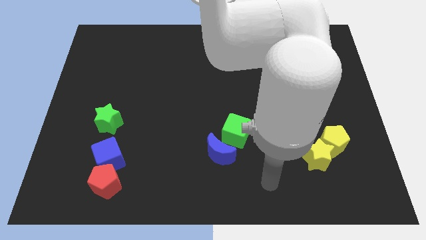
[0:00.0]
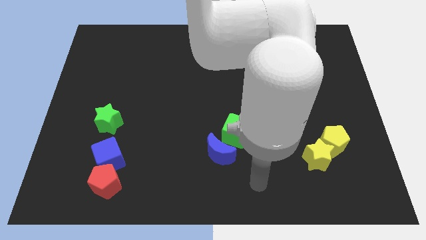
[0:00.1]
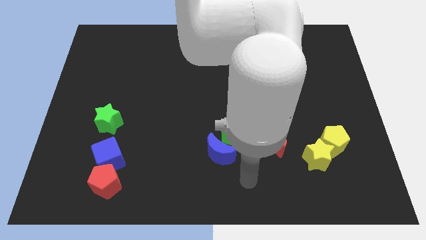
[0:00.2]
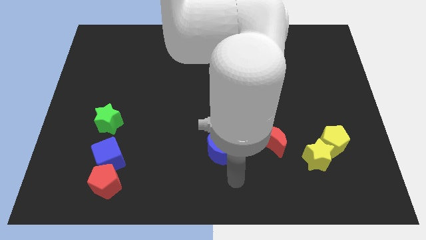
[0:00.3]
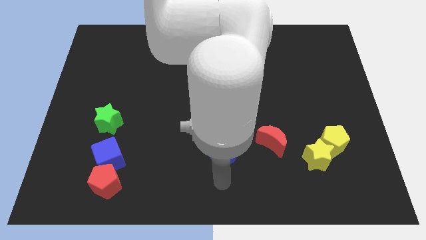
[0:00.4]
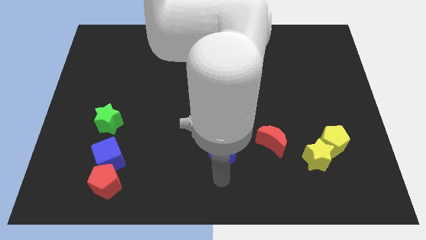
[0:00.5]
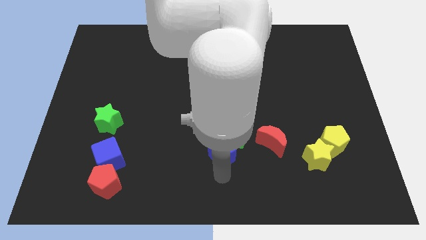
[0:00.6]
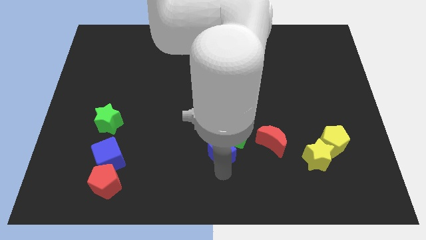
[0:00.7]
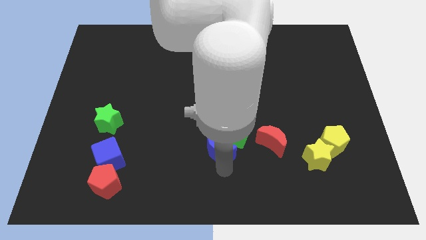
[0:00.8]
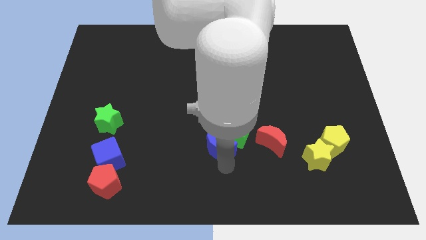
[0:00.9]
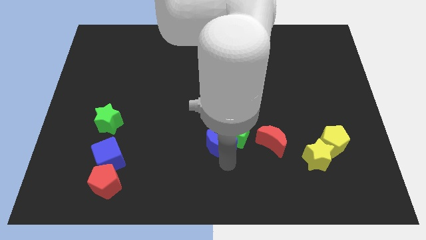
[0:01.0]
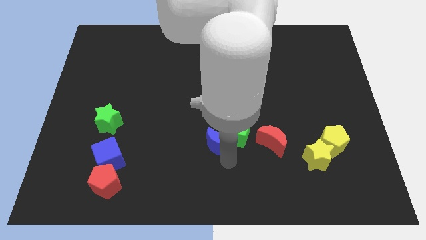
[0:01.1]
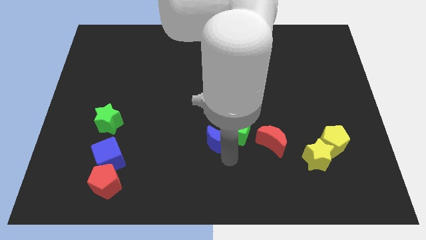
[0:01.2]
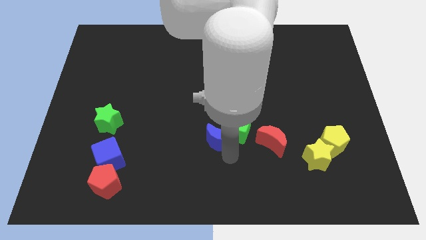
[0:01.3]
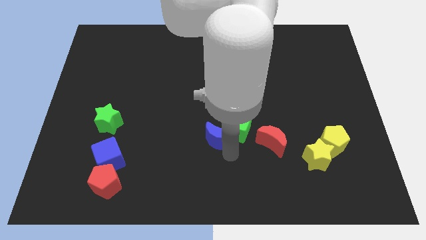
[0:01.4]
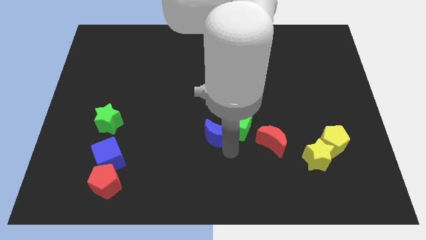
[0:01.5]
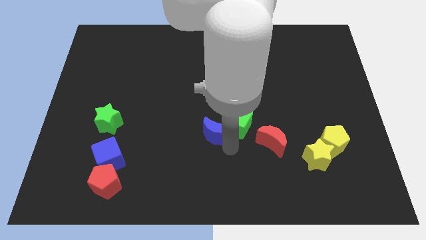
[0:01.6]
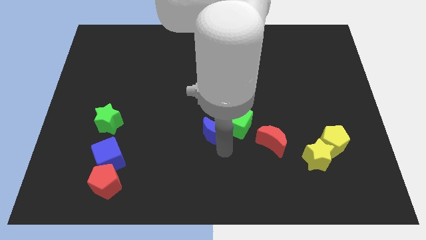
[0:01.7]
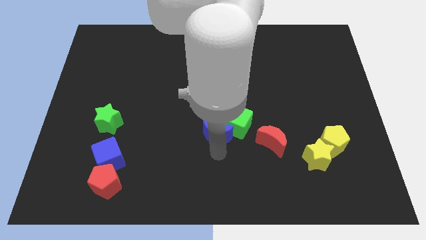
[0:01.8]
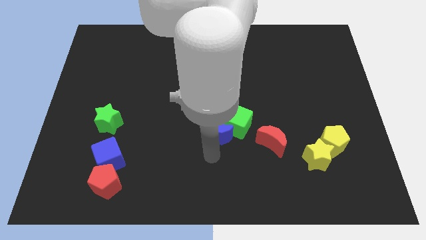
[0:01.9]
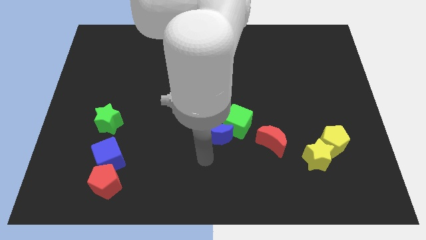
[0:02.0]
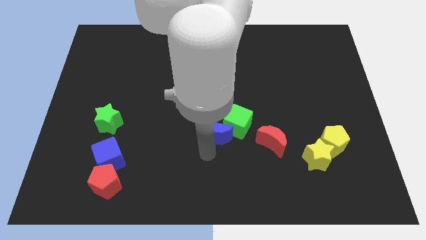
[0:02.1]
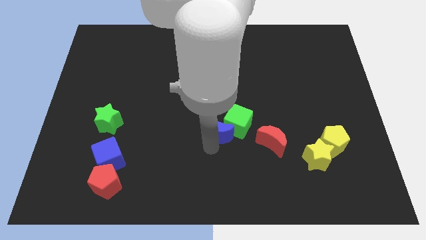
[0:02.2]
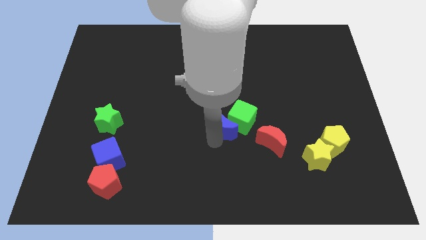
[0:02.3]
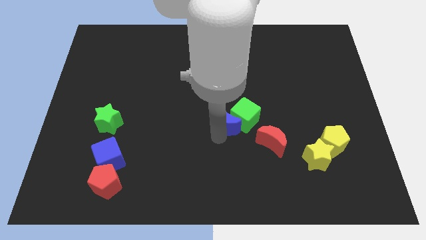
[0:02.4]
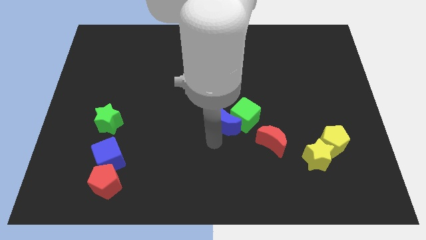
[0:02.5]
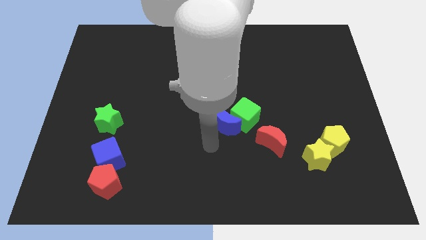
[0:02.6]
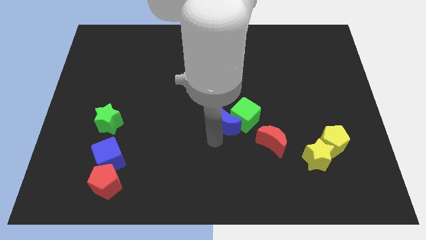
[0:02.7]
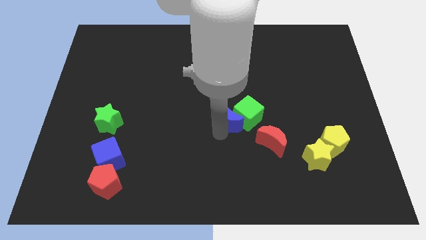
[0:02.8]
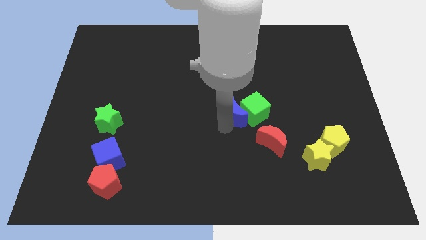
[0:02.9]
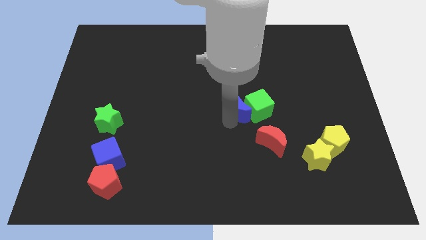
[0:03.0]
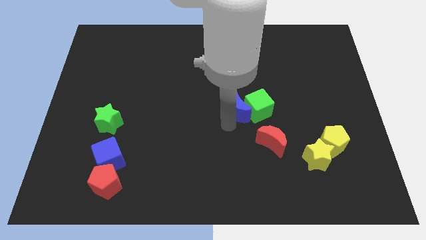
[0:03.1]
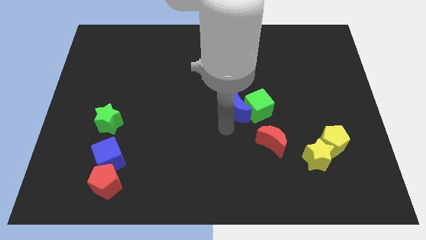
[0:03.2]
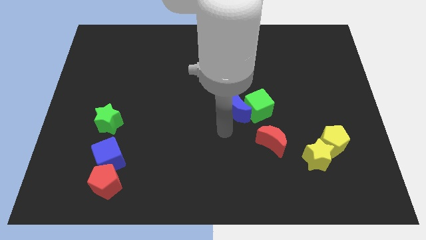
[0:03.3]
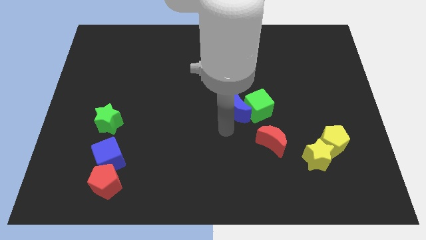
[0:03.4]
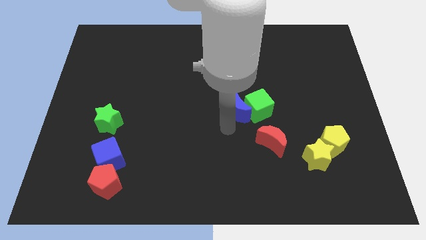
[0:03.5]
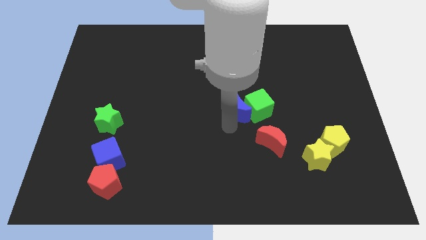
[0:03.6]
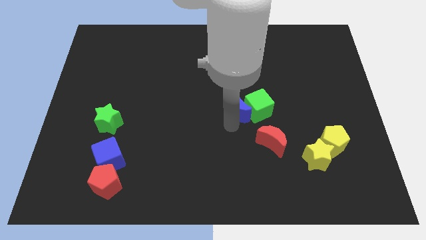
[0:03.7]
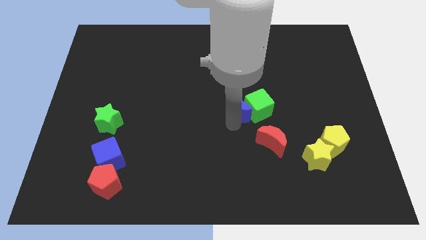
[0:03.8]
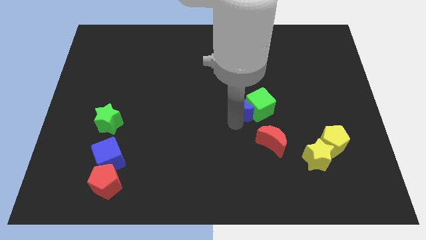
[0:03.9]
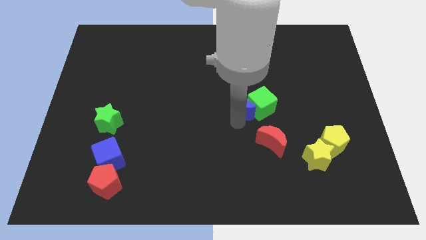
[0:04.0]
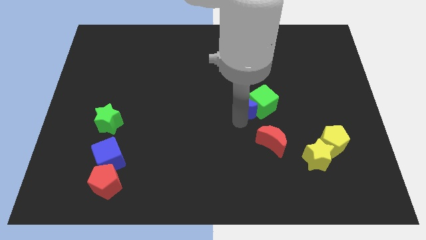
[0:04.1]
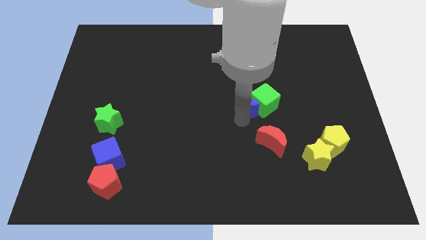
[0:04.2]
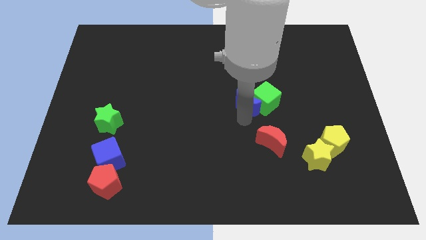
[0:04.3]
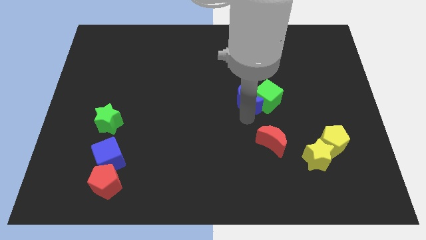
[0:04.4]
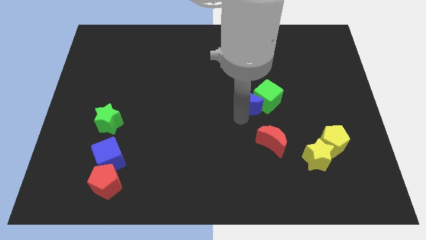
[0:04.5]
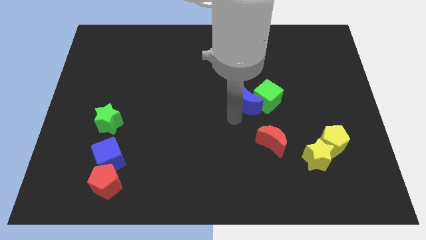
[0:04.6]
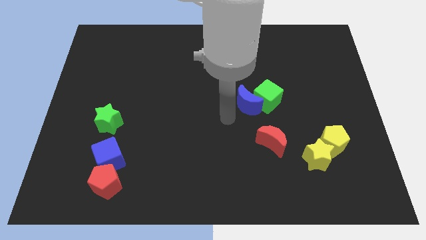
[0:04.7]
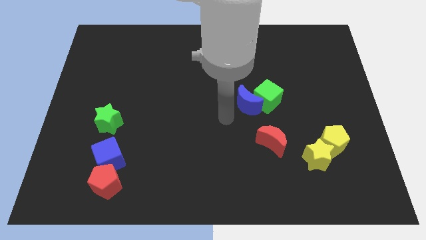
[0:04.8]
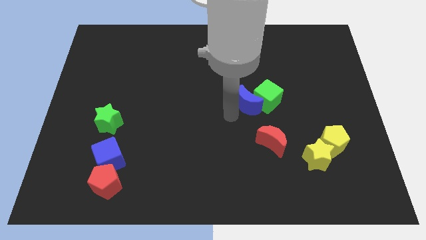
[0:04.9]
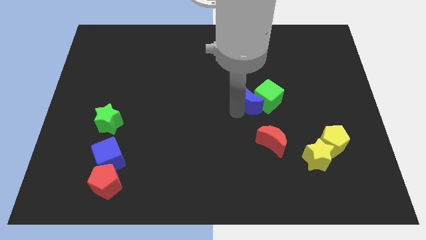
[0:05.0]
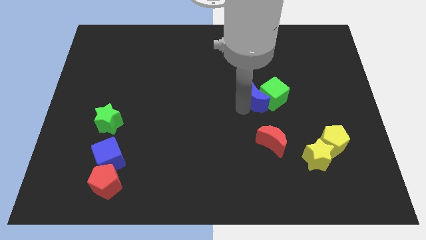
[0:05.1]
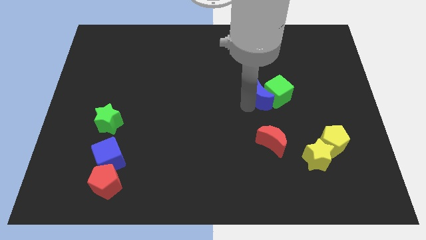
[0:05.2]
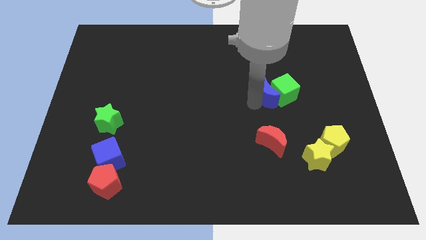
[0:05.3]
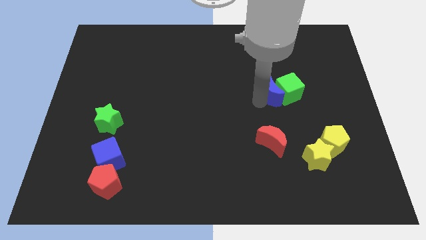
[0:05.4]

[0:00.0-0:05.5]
push the blue moon diagonally up and right

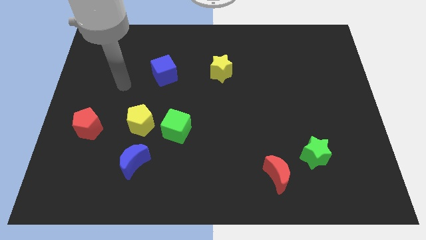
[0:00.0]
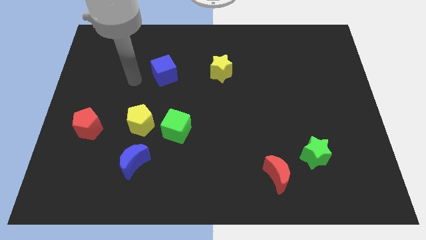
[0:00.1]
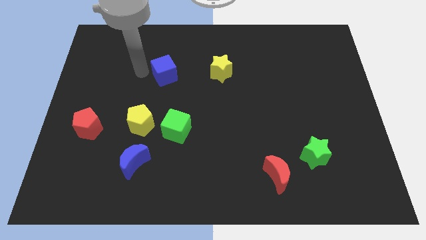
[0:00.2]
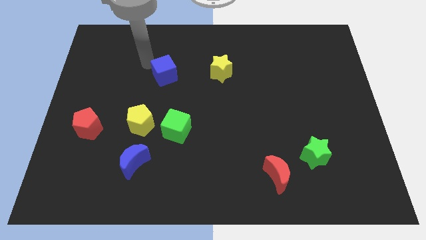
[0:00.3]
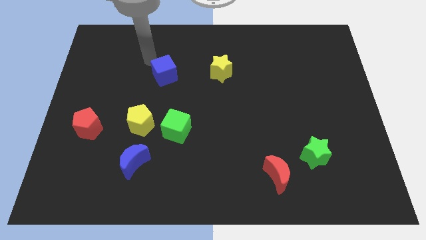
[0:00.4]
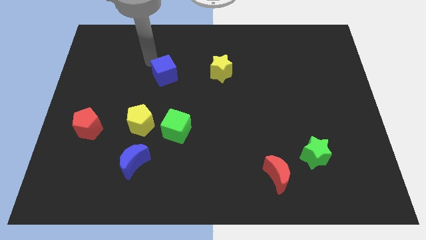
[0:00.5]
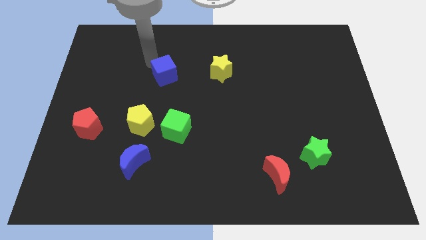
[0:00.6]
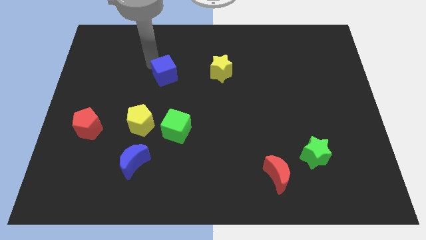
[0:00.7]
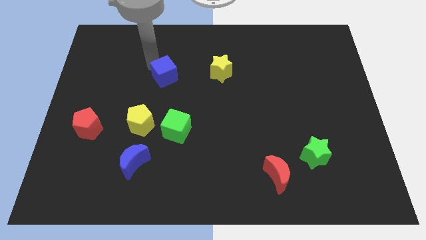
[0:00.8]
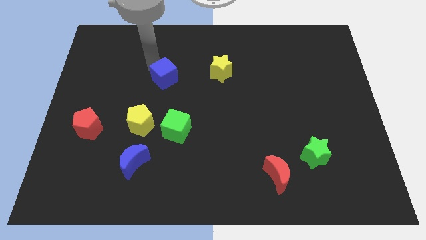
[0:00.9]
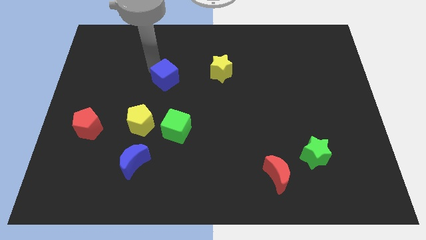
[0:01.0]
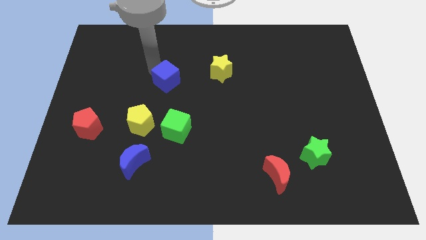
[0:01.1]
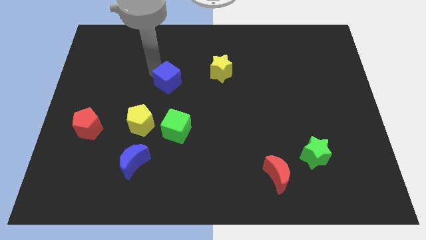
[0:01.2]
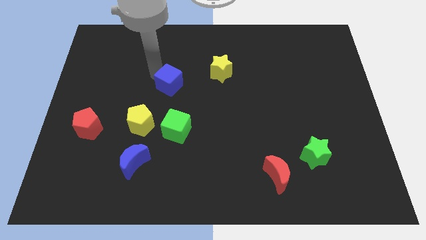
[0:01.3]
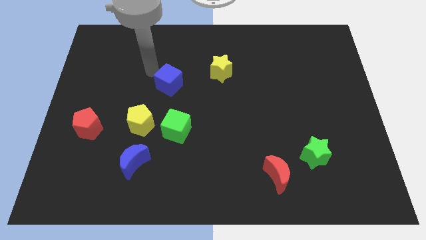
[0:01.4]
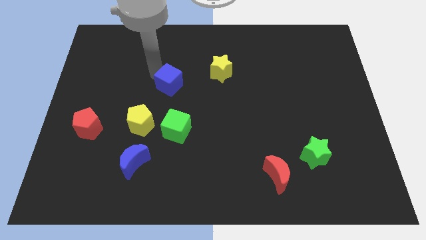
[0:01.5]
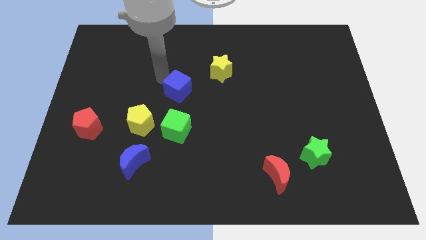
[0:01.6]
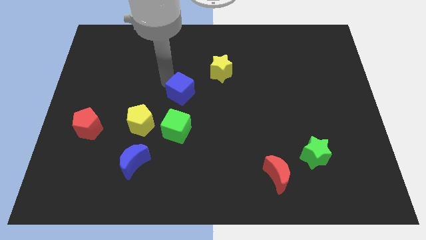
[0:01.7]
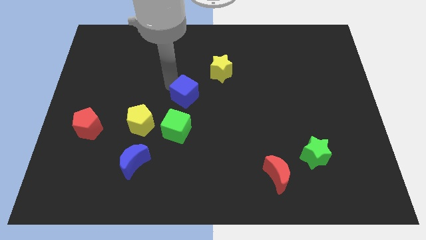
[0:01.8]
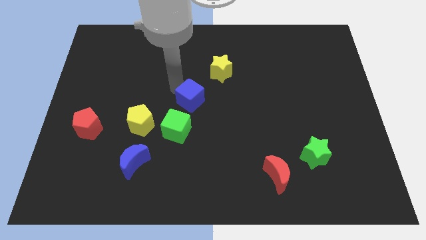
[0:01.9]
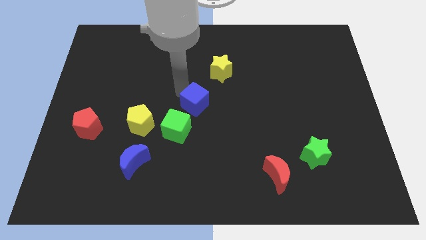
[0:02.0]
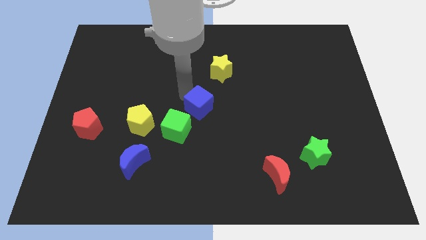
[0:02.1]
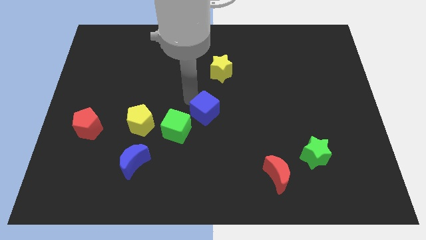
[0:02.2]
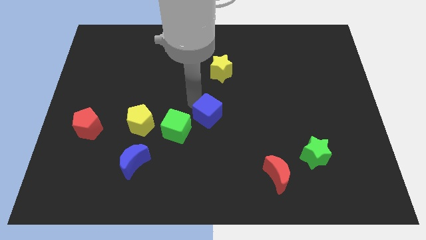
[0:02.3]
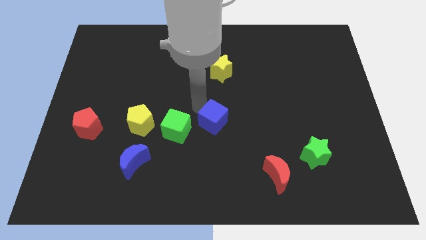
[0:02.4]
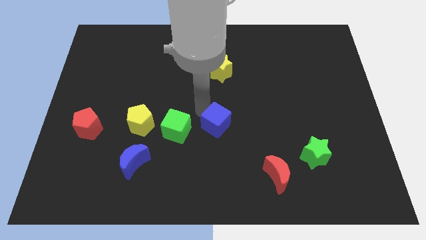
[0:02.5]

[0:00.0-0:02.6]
slide the blue cube down and right diagonally
